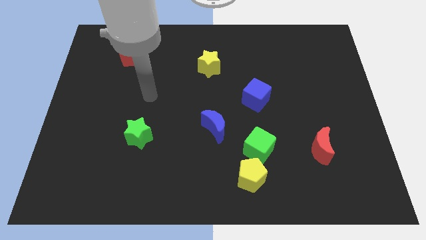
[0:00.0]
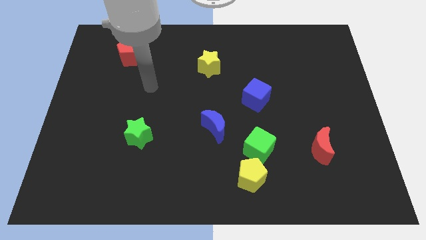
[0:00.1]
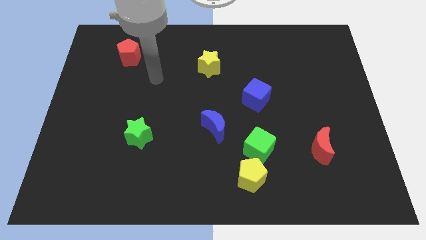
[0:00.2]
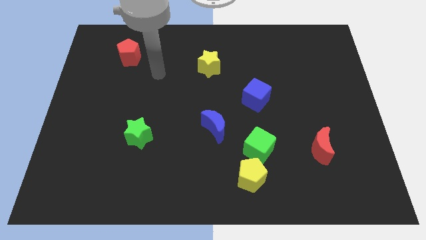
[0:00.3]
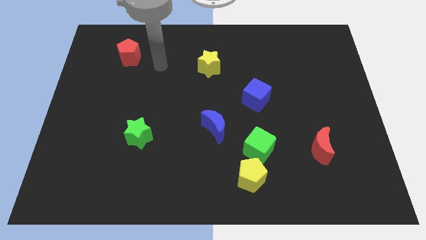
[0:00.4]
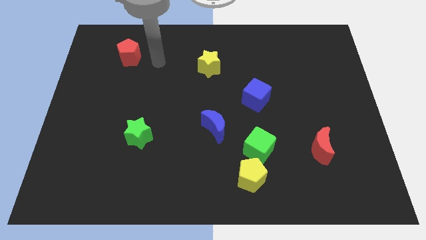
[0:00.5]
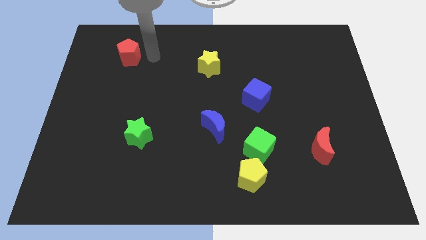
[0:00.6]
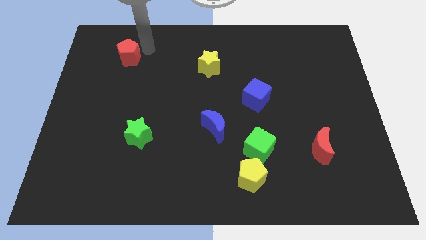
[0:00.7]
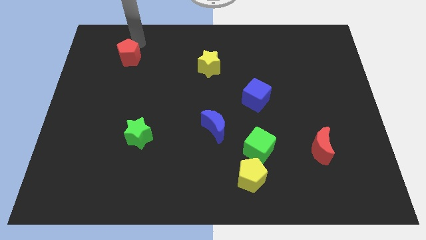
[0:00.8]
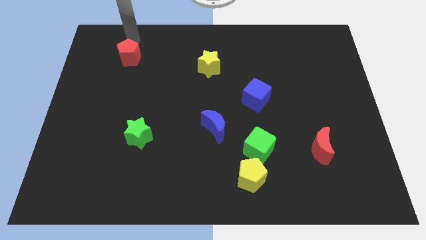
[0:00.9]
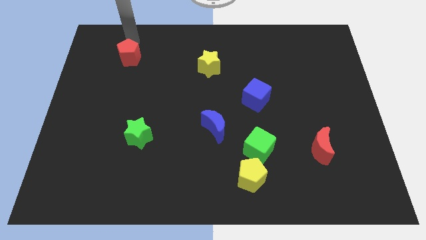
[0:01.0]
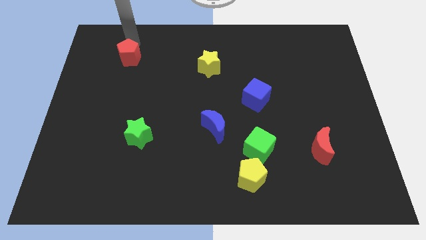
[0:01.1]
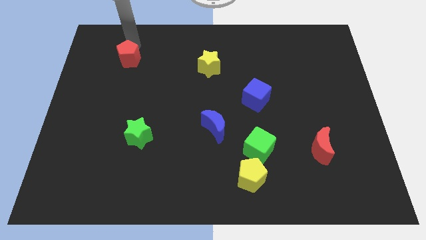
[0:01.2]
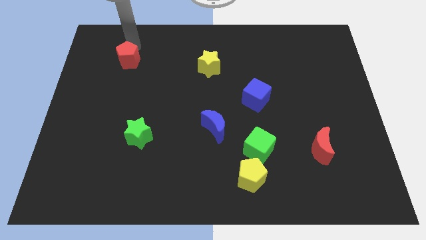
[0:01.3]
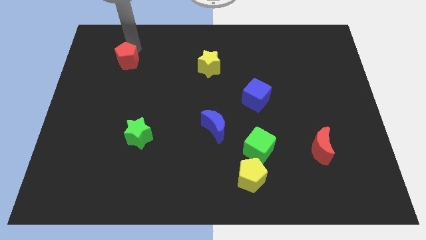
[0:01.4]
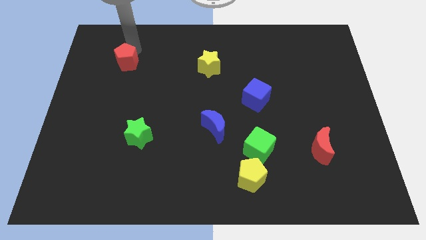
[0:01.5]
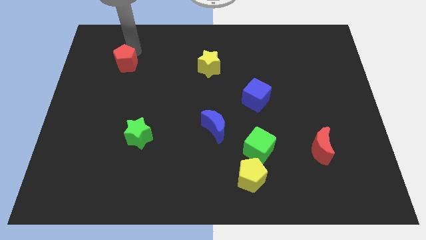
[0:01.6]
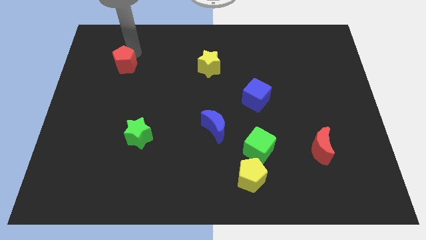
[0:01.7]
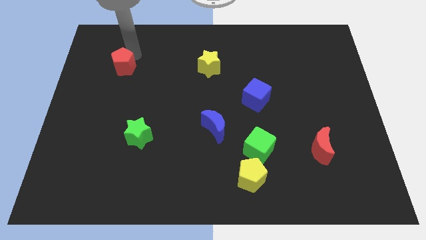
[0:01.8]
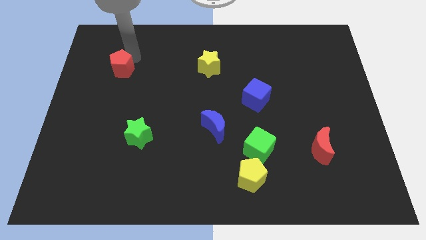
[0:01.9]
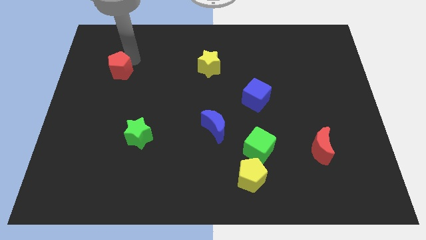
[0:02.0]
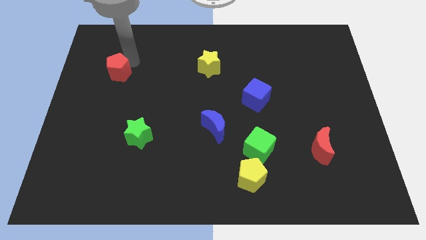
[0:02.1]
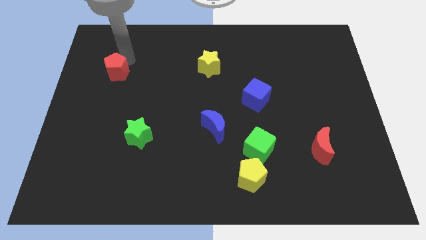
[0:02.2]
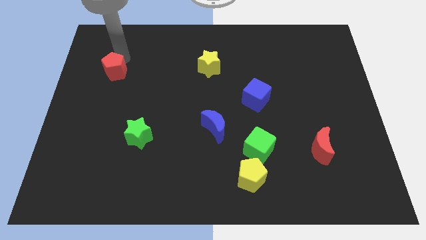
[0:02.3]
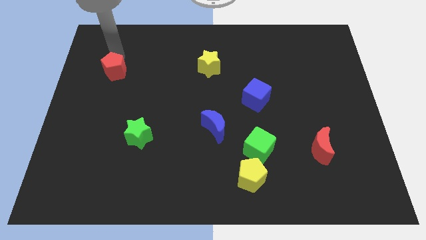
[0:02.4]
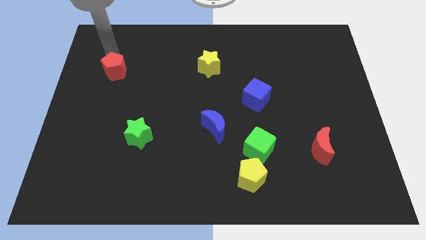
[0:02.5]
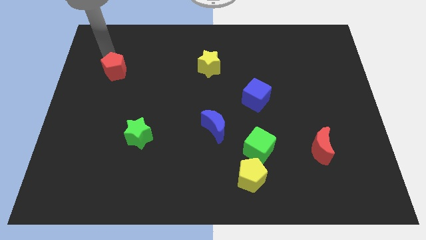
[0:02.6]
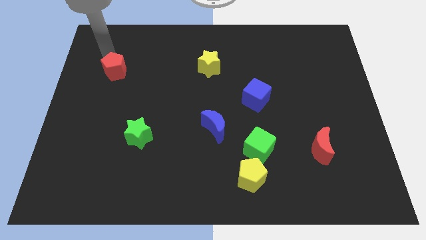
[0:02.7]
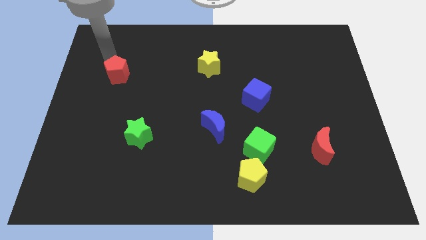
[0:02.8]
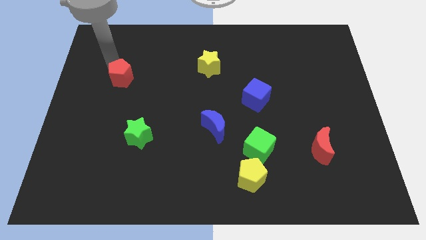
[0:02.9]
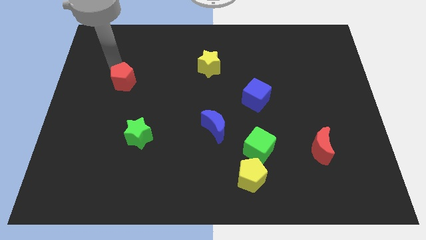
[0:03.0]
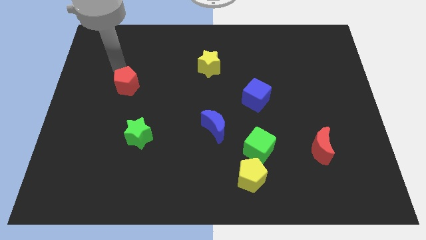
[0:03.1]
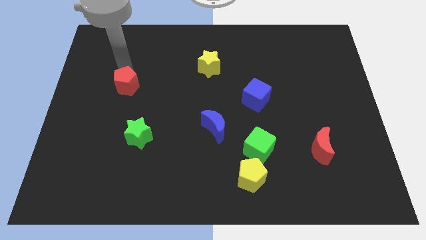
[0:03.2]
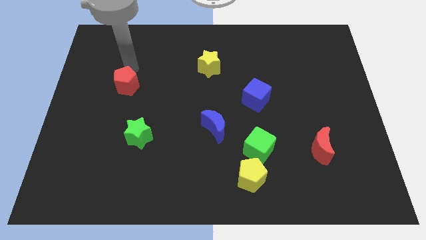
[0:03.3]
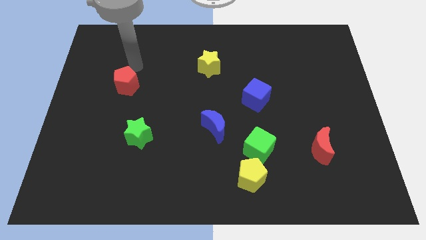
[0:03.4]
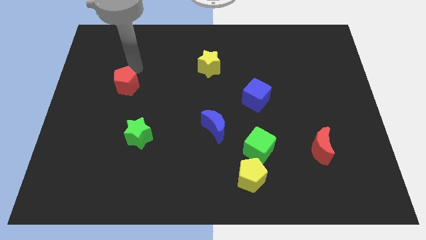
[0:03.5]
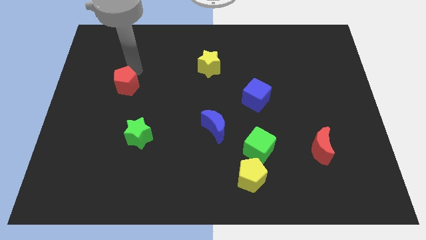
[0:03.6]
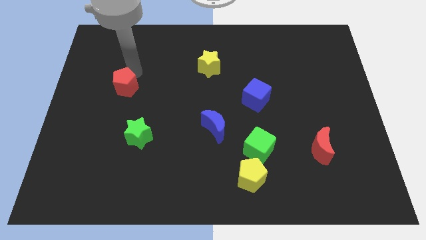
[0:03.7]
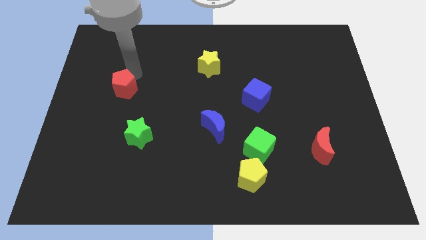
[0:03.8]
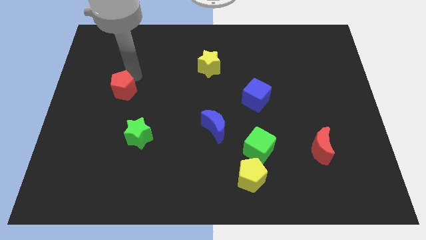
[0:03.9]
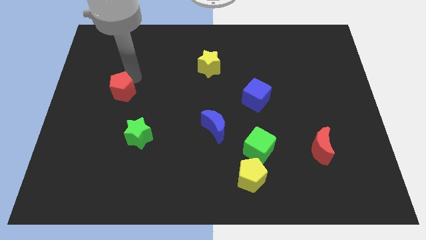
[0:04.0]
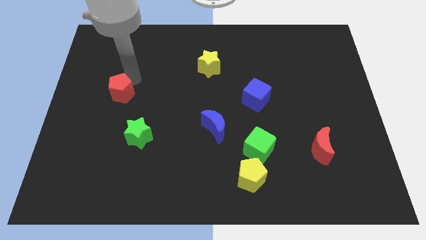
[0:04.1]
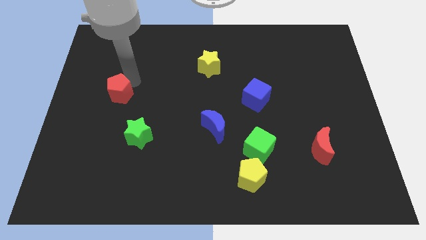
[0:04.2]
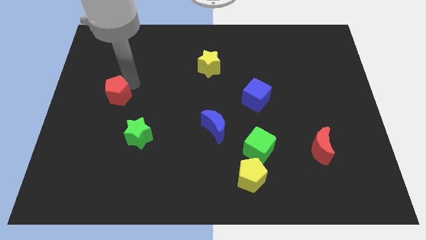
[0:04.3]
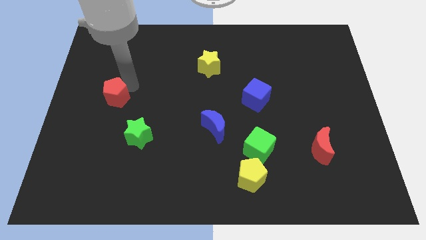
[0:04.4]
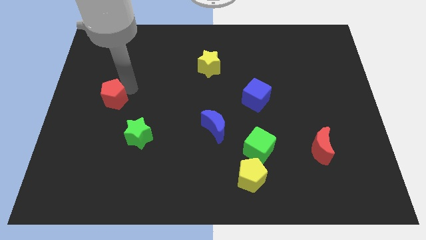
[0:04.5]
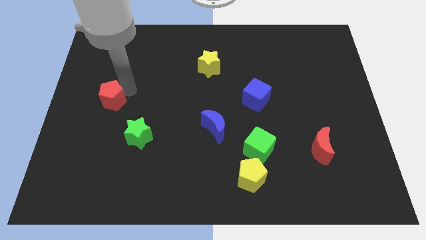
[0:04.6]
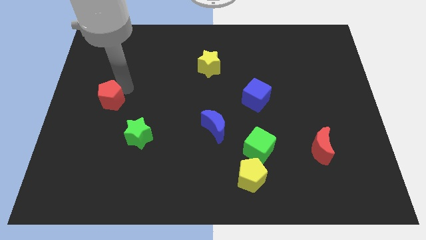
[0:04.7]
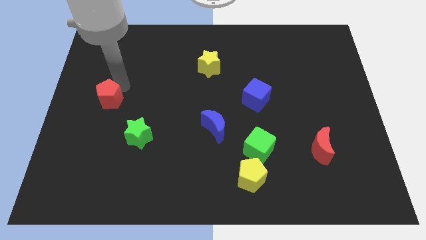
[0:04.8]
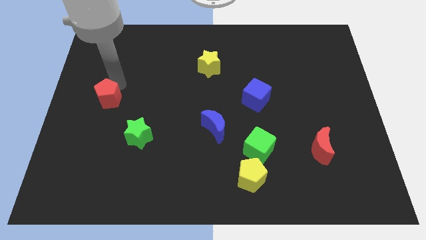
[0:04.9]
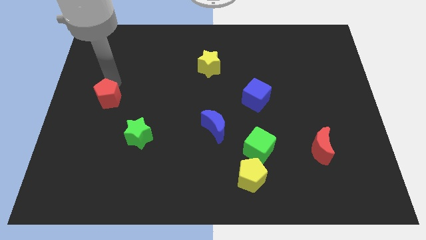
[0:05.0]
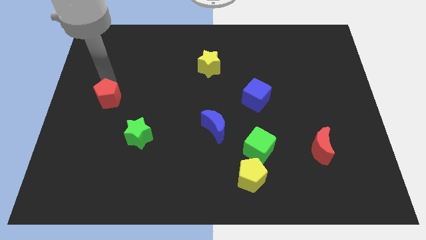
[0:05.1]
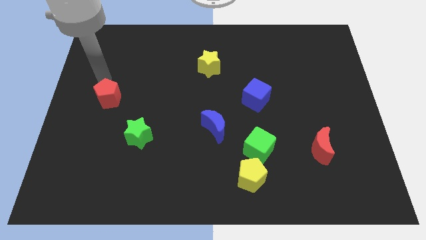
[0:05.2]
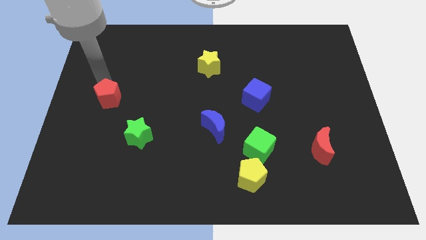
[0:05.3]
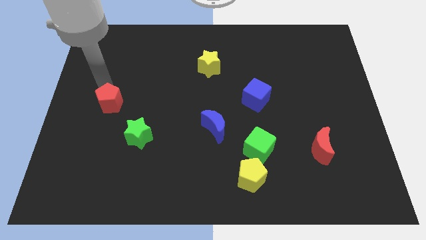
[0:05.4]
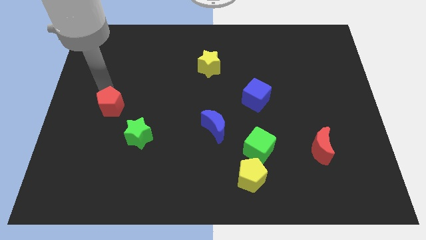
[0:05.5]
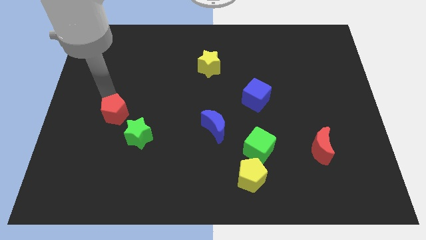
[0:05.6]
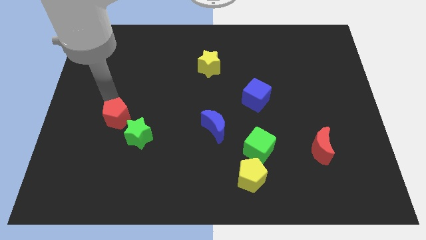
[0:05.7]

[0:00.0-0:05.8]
move the red pentagon downwards

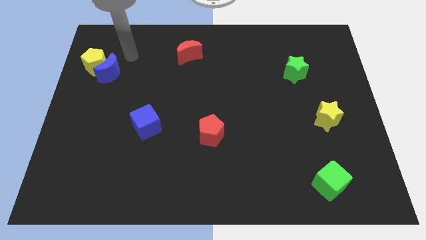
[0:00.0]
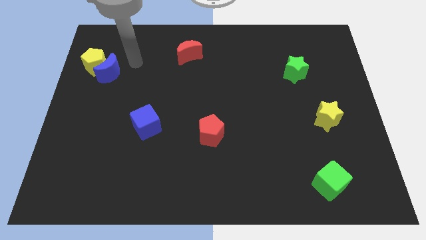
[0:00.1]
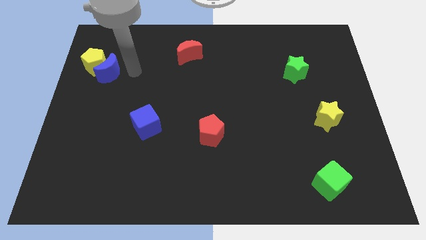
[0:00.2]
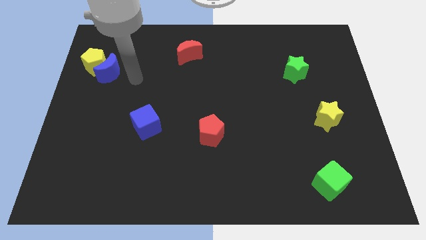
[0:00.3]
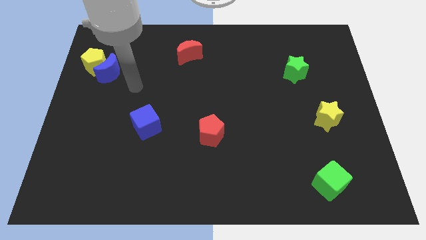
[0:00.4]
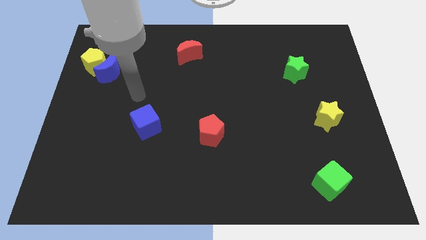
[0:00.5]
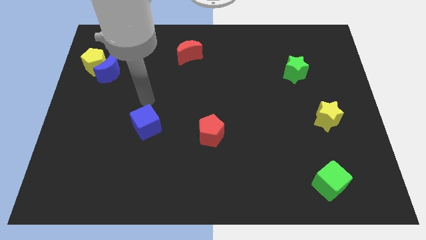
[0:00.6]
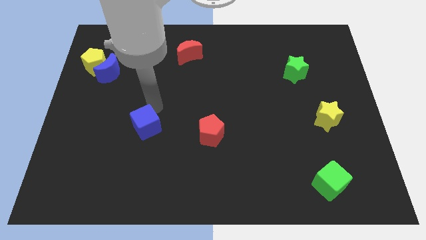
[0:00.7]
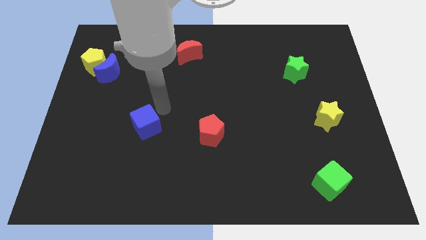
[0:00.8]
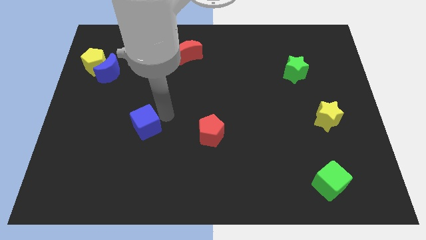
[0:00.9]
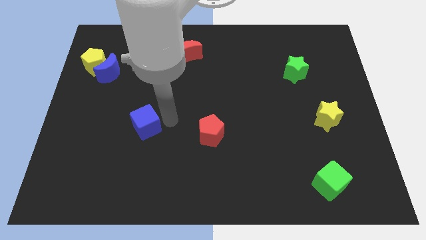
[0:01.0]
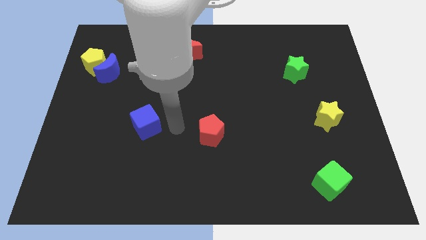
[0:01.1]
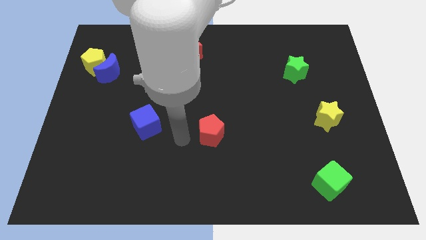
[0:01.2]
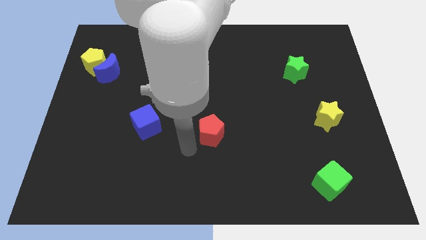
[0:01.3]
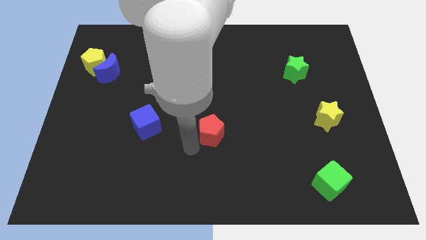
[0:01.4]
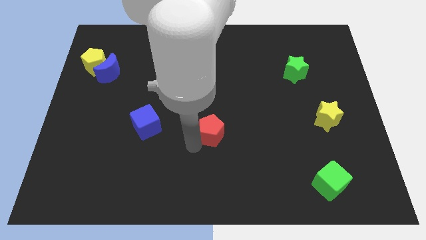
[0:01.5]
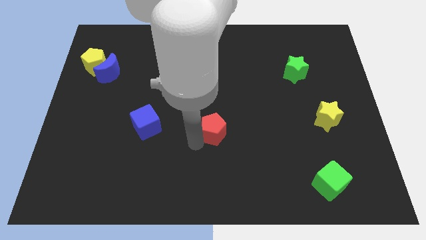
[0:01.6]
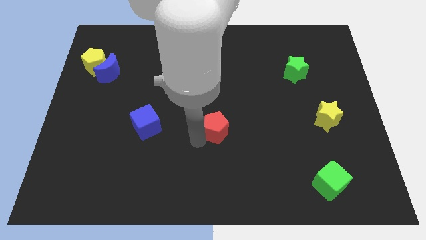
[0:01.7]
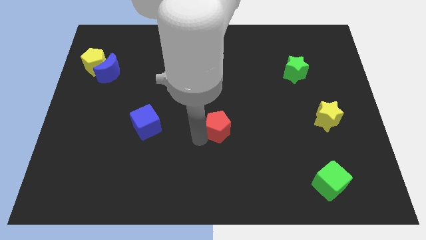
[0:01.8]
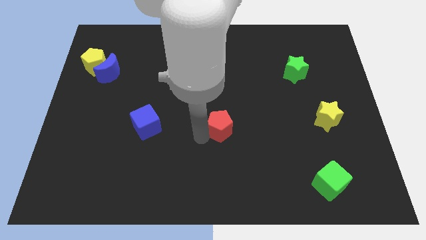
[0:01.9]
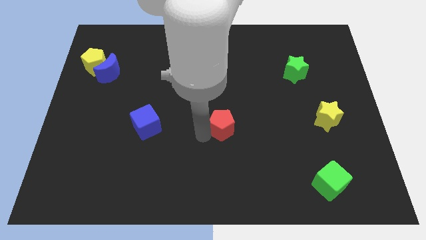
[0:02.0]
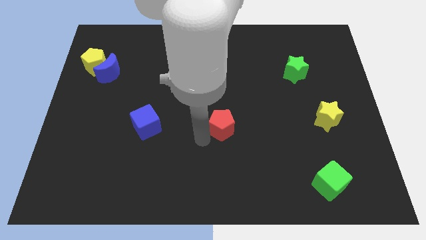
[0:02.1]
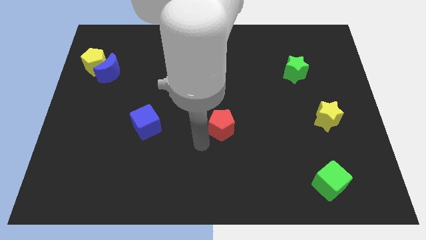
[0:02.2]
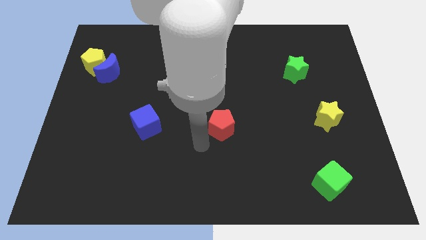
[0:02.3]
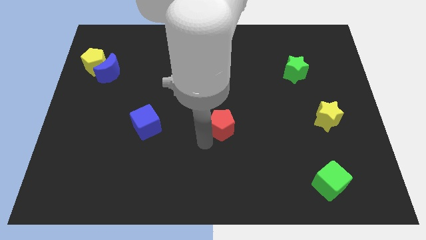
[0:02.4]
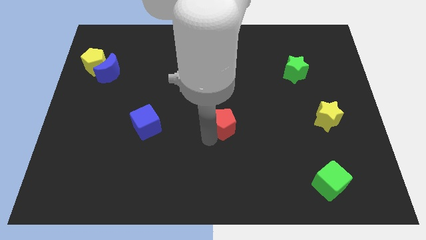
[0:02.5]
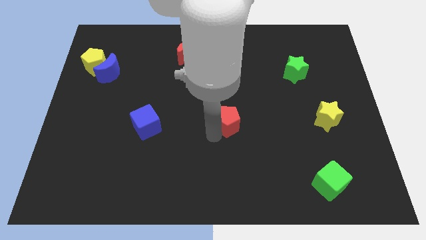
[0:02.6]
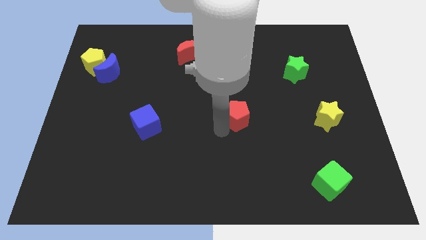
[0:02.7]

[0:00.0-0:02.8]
move the red pentagon up and right diagonally somewhat
